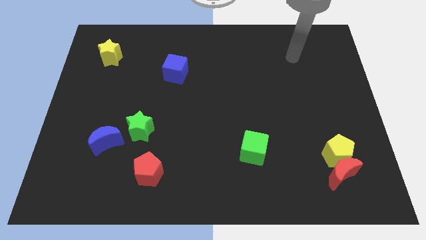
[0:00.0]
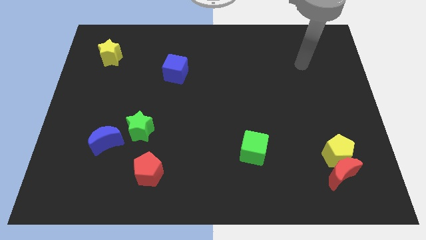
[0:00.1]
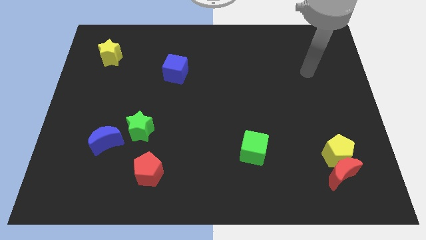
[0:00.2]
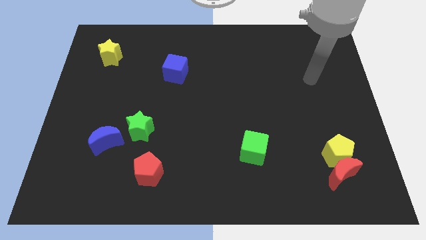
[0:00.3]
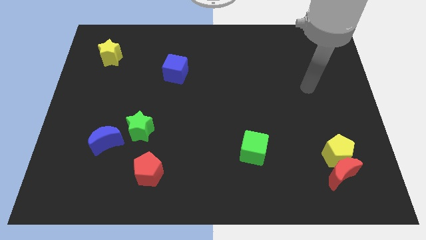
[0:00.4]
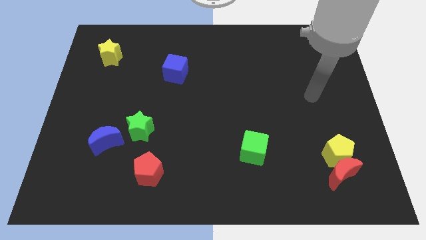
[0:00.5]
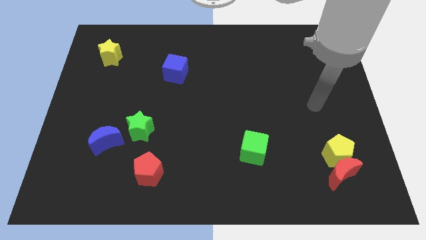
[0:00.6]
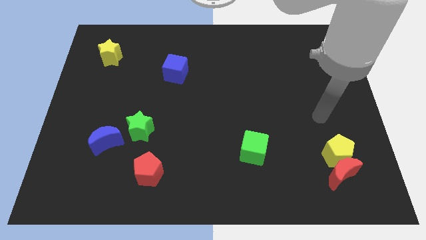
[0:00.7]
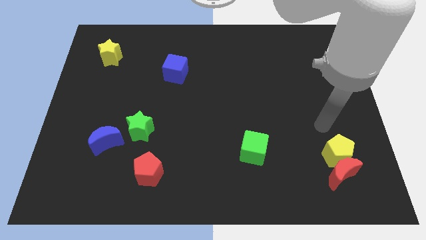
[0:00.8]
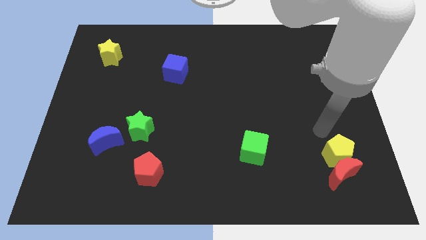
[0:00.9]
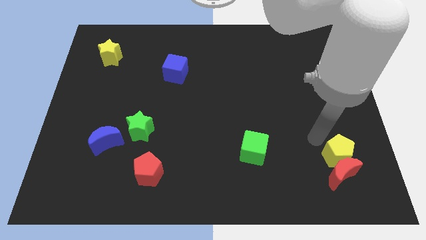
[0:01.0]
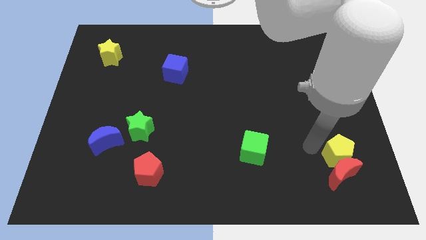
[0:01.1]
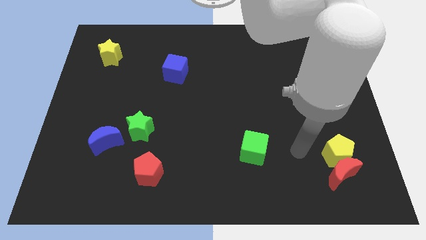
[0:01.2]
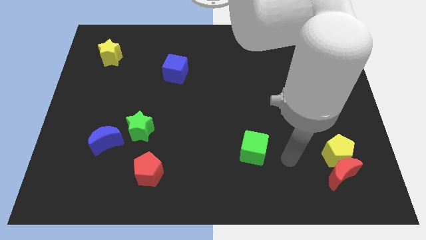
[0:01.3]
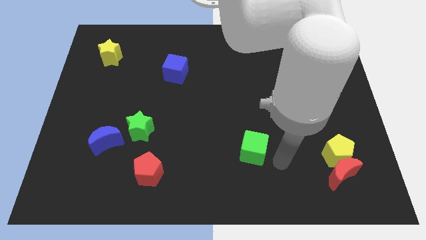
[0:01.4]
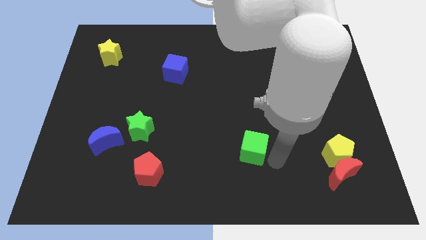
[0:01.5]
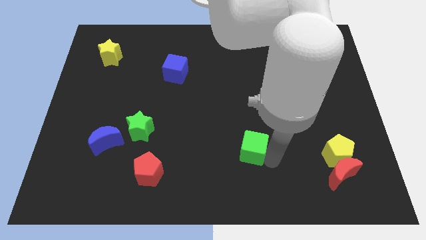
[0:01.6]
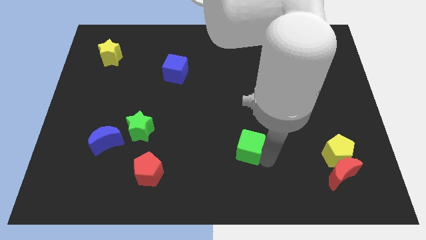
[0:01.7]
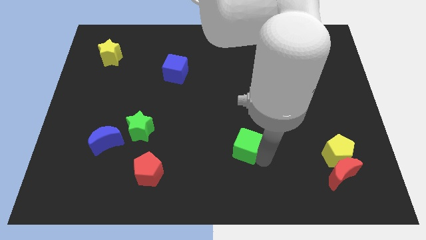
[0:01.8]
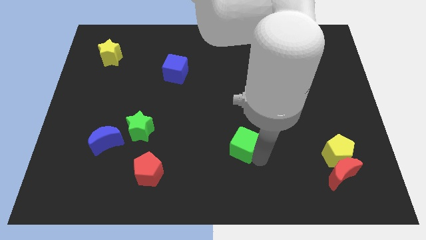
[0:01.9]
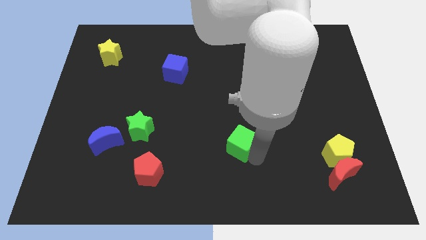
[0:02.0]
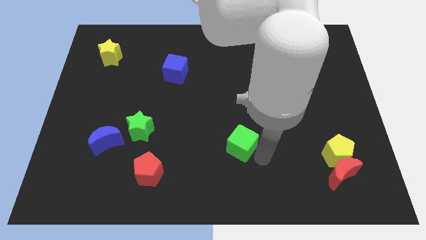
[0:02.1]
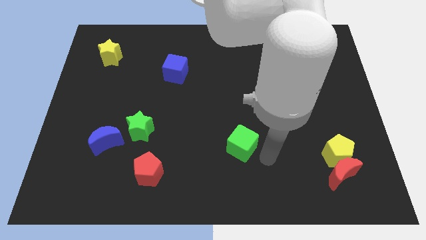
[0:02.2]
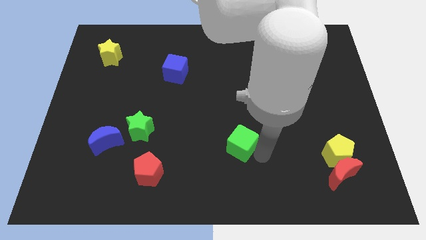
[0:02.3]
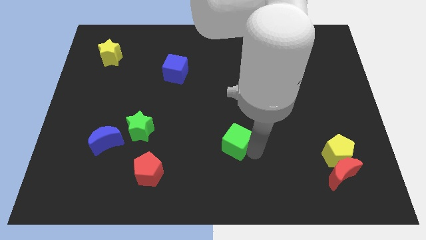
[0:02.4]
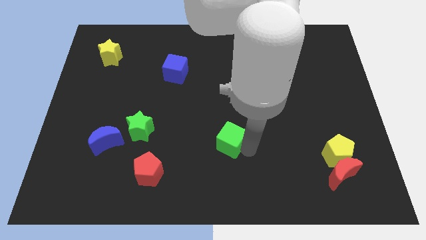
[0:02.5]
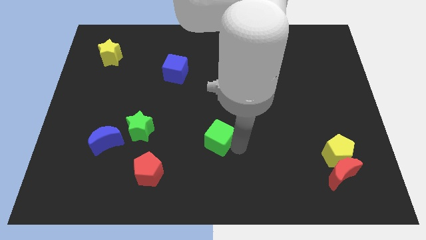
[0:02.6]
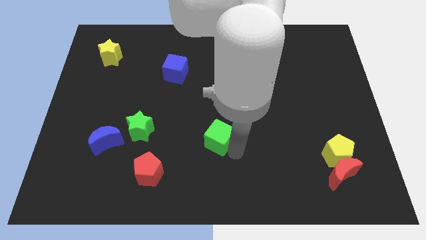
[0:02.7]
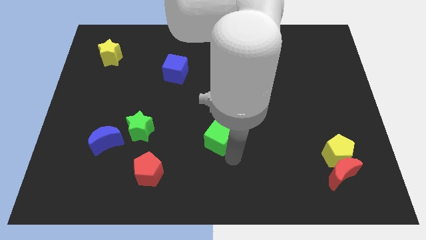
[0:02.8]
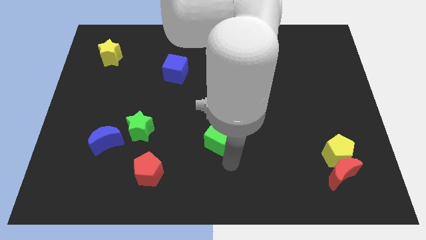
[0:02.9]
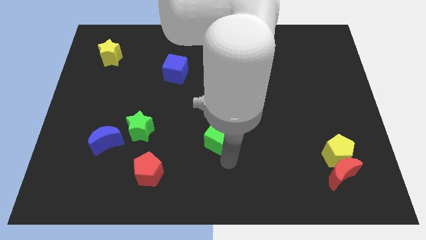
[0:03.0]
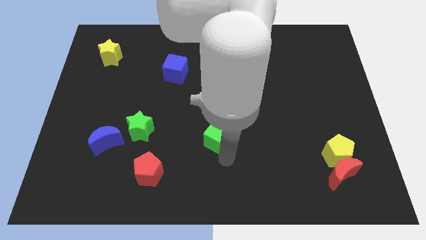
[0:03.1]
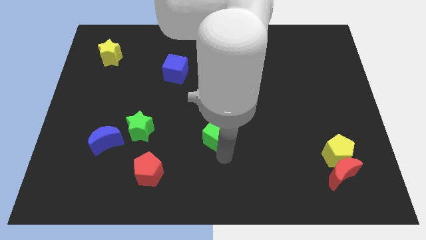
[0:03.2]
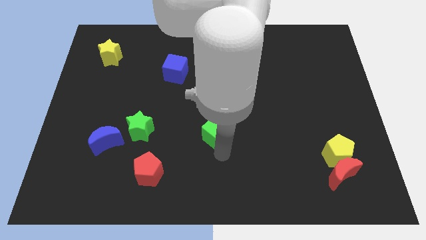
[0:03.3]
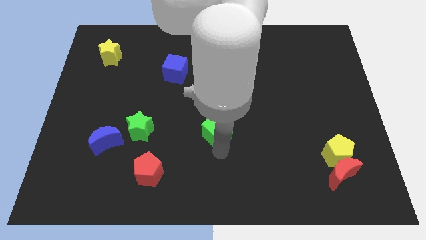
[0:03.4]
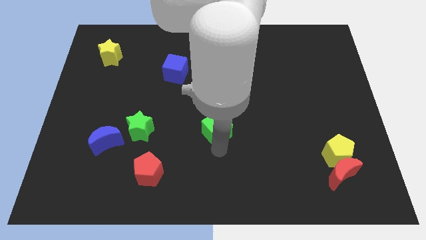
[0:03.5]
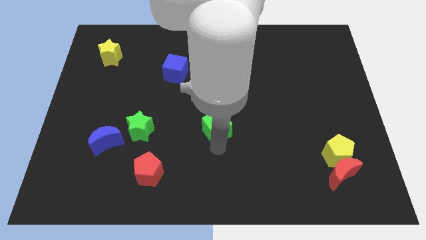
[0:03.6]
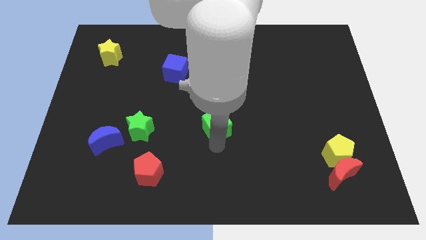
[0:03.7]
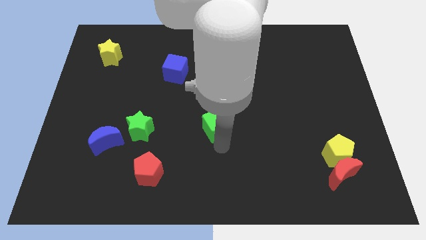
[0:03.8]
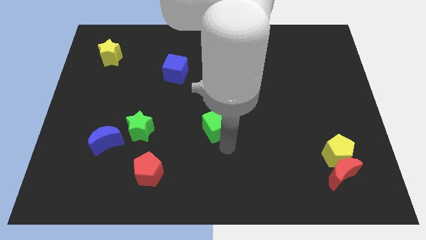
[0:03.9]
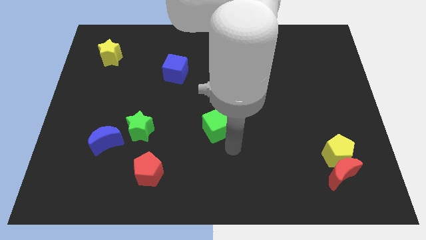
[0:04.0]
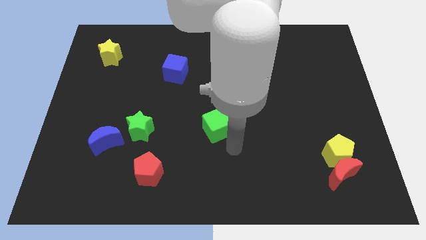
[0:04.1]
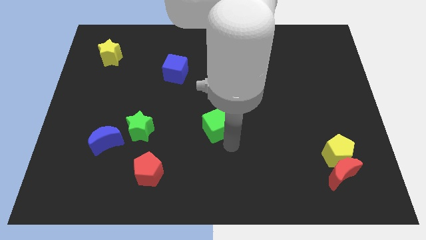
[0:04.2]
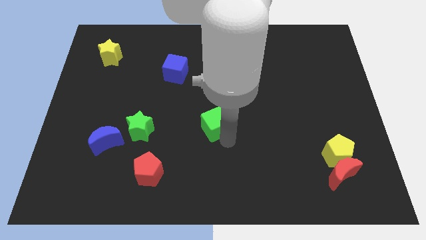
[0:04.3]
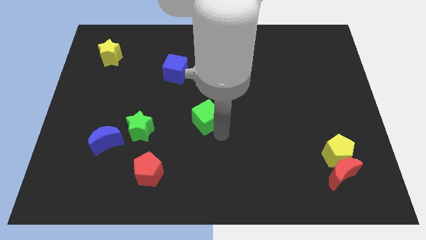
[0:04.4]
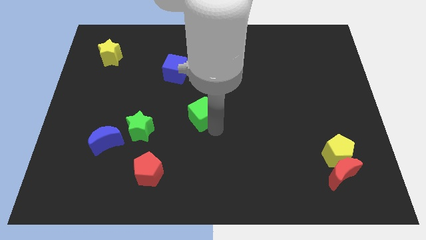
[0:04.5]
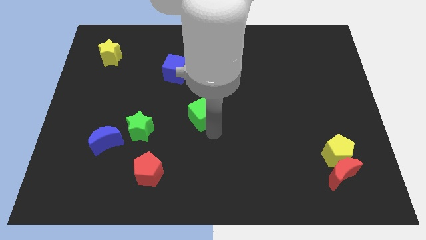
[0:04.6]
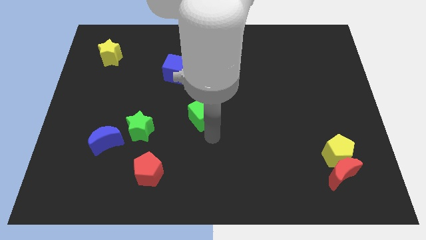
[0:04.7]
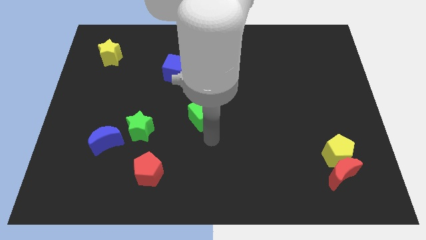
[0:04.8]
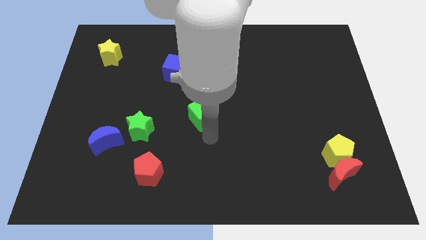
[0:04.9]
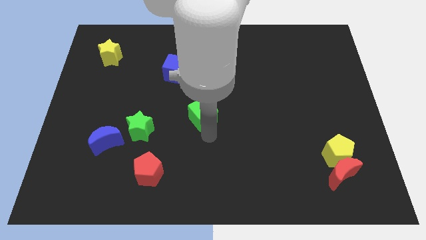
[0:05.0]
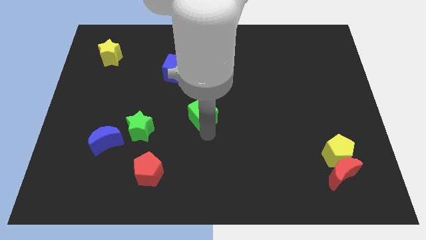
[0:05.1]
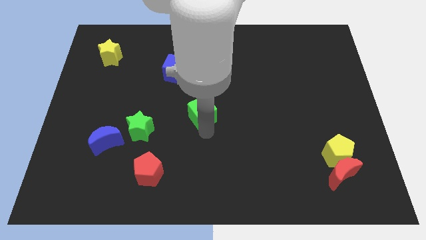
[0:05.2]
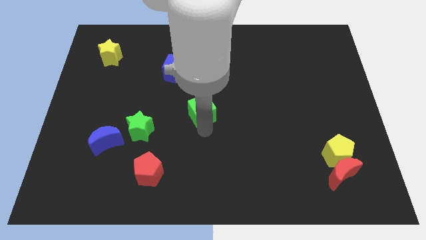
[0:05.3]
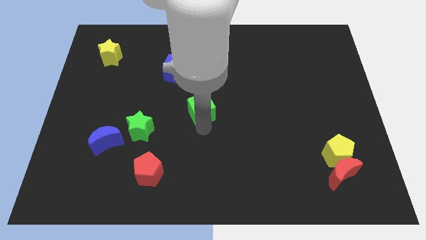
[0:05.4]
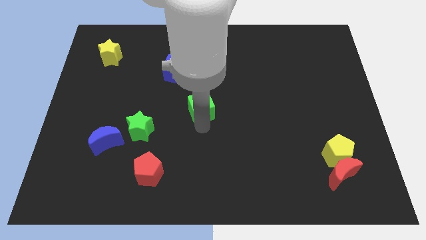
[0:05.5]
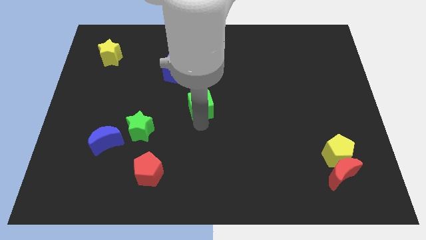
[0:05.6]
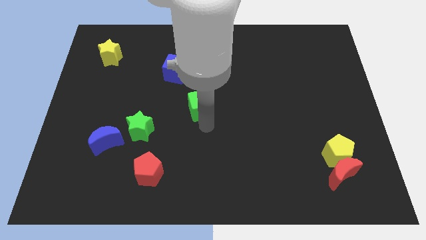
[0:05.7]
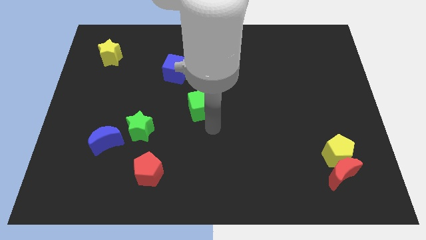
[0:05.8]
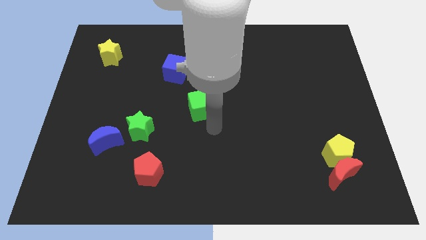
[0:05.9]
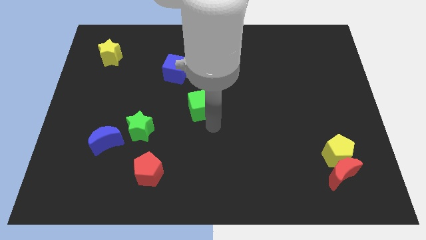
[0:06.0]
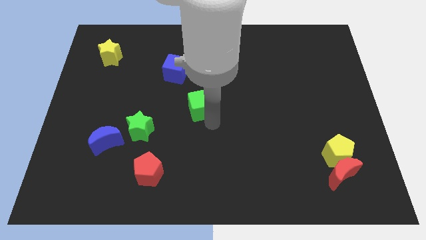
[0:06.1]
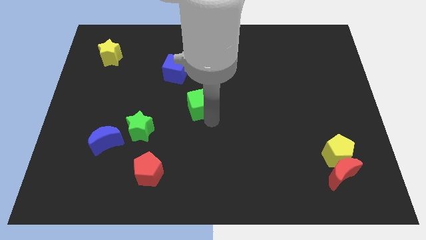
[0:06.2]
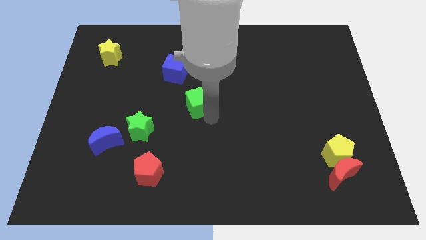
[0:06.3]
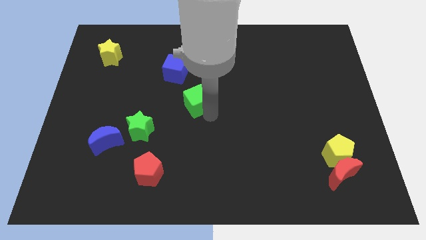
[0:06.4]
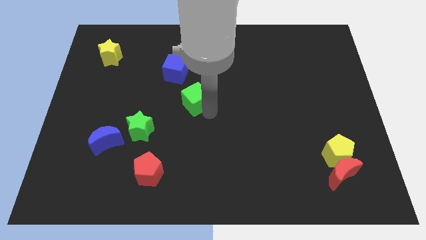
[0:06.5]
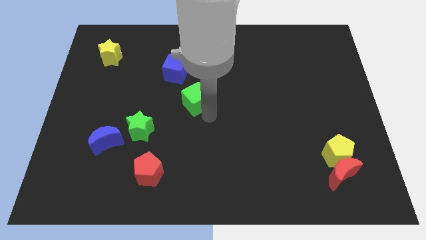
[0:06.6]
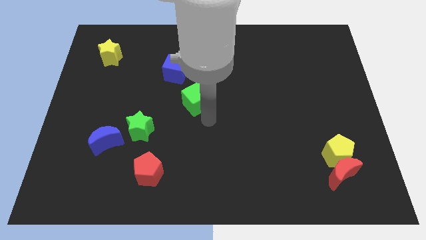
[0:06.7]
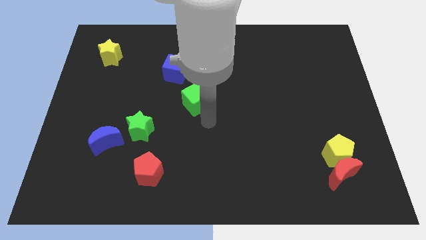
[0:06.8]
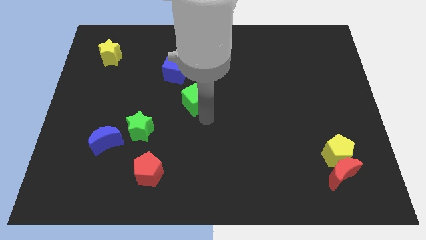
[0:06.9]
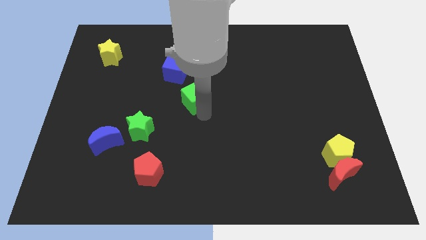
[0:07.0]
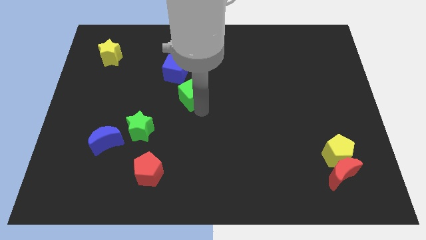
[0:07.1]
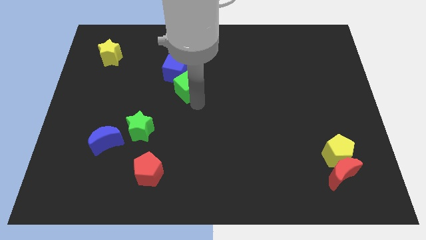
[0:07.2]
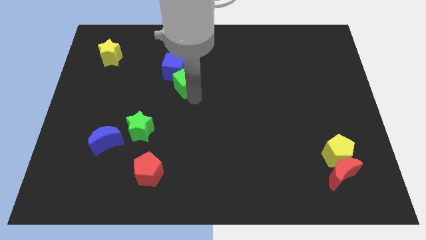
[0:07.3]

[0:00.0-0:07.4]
put the green cube close to the blue cube
